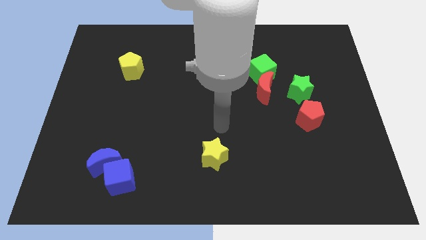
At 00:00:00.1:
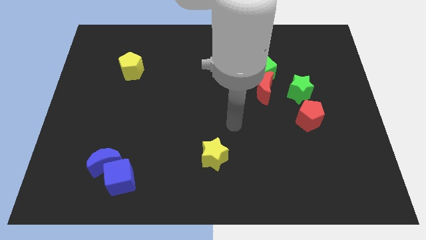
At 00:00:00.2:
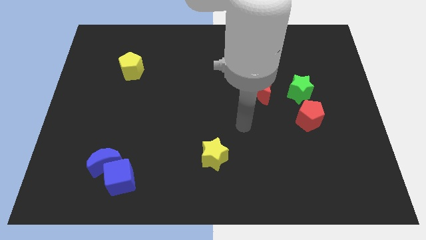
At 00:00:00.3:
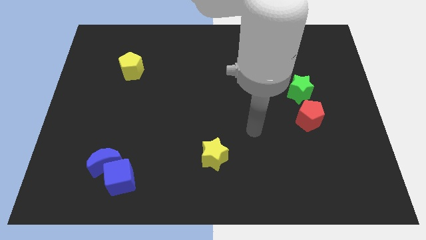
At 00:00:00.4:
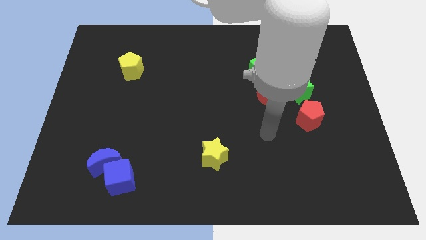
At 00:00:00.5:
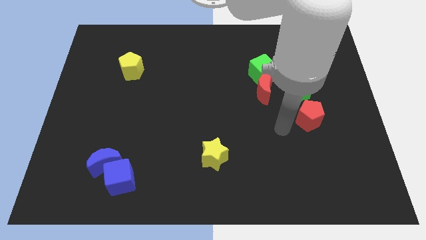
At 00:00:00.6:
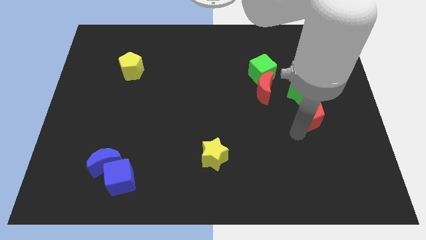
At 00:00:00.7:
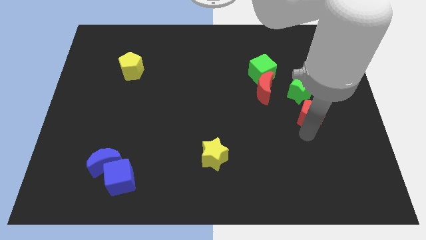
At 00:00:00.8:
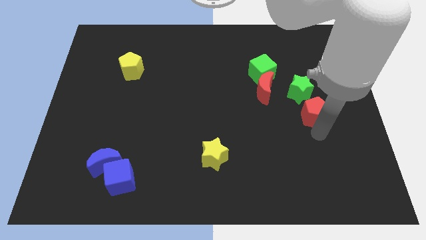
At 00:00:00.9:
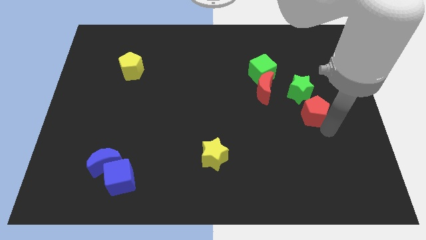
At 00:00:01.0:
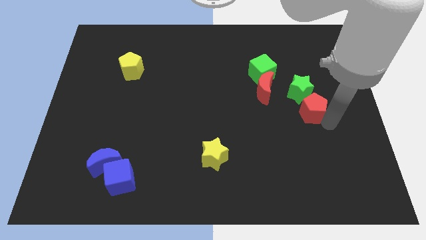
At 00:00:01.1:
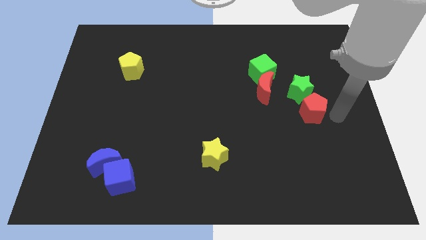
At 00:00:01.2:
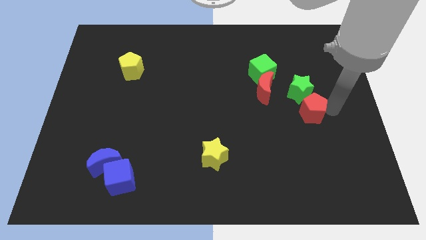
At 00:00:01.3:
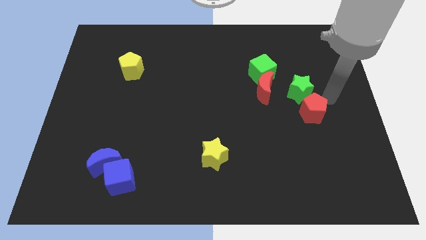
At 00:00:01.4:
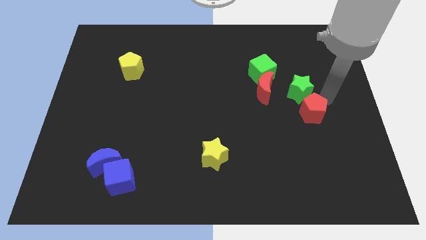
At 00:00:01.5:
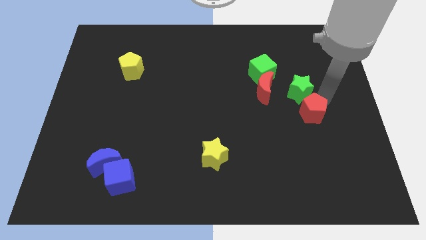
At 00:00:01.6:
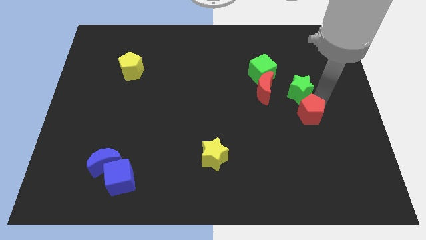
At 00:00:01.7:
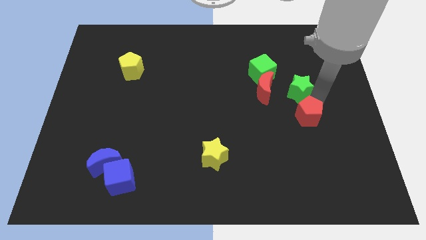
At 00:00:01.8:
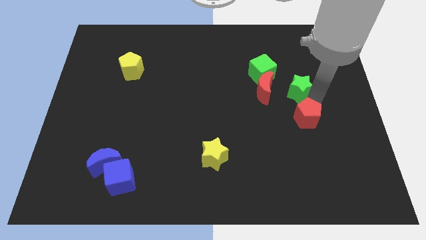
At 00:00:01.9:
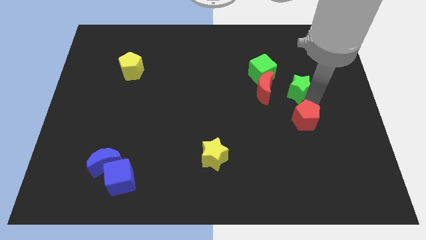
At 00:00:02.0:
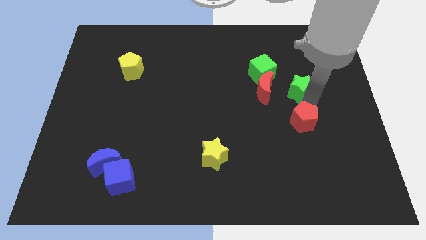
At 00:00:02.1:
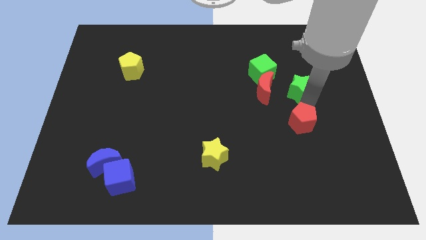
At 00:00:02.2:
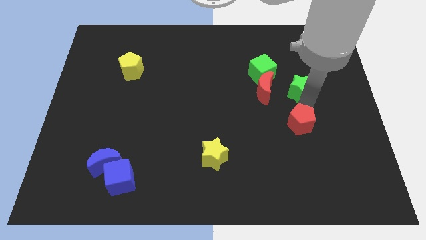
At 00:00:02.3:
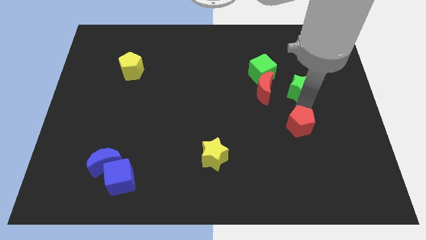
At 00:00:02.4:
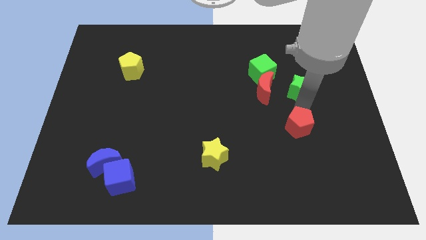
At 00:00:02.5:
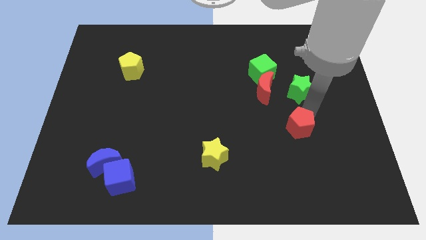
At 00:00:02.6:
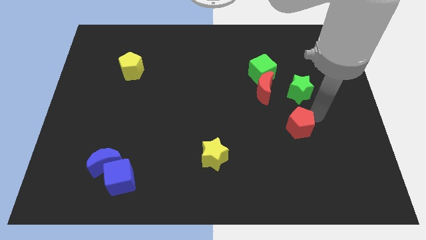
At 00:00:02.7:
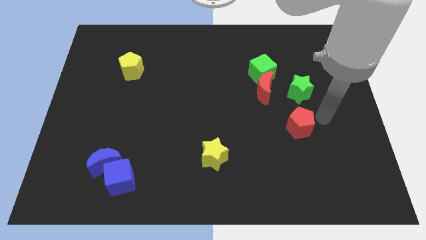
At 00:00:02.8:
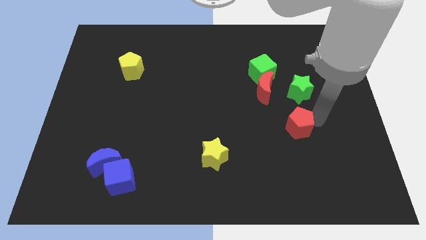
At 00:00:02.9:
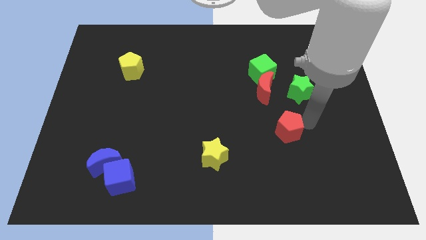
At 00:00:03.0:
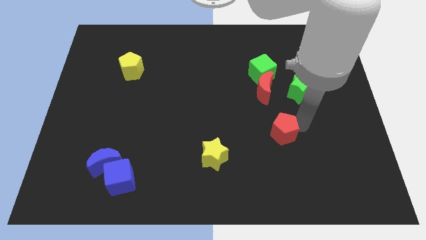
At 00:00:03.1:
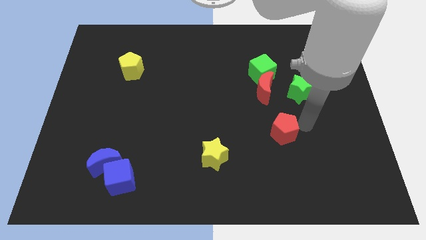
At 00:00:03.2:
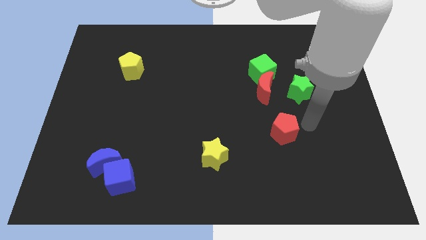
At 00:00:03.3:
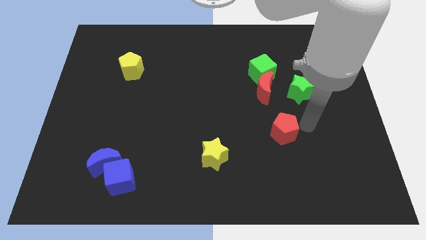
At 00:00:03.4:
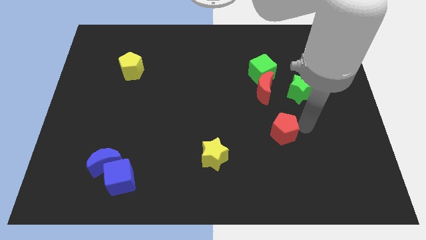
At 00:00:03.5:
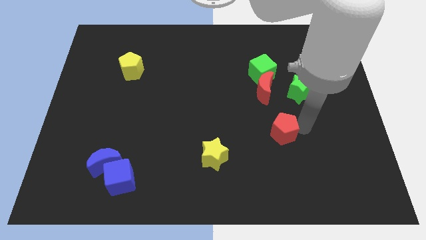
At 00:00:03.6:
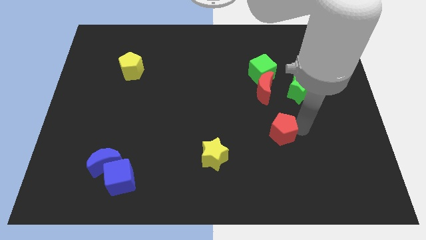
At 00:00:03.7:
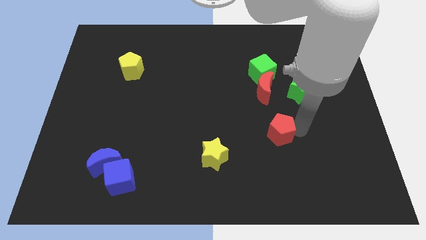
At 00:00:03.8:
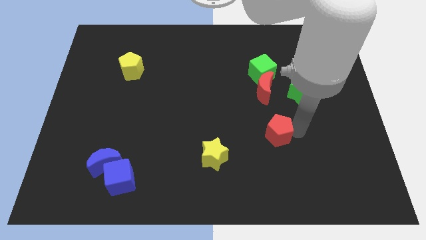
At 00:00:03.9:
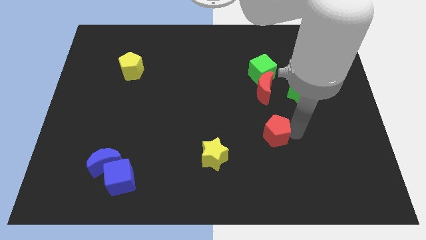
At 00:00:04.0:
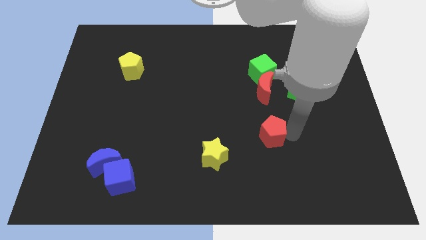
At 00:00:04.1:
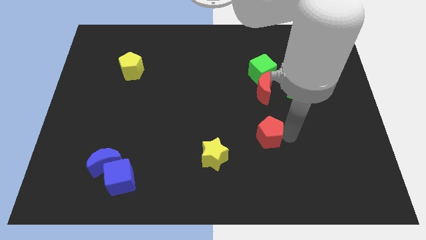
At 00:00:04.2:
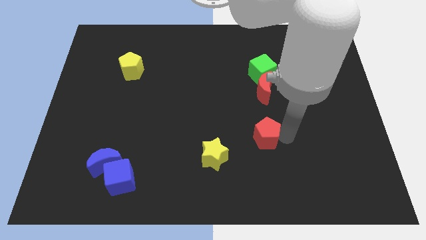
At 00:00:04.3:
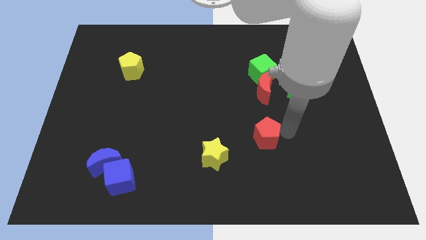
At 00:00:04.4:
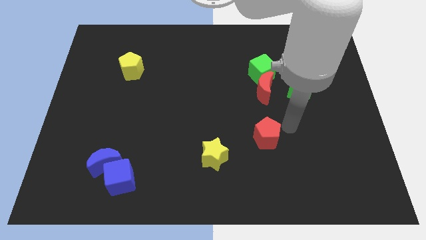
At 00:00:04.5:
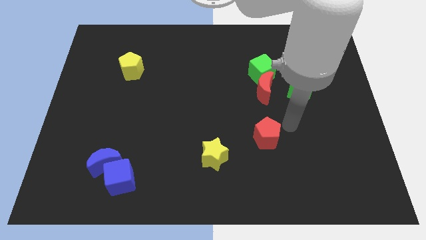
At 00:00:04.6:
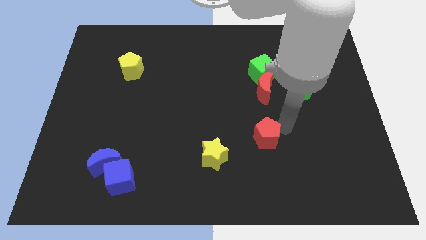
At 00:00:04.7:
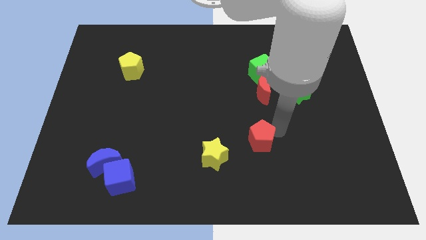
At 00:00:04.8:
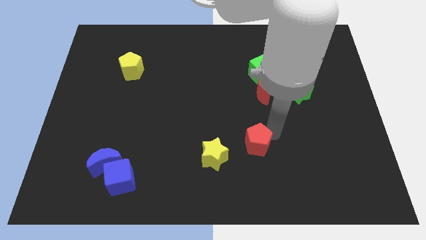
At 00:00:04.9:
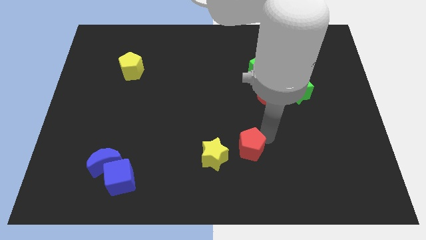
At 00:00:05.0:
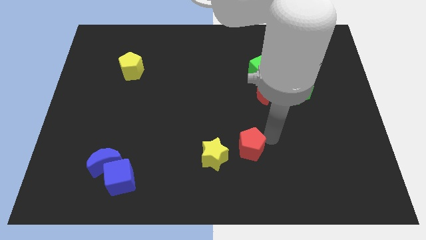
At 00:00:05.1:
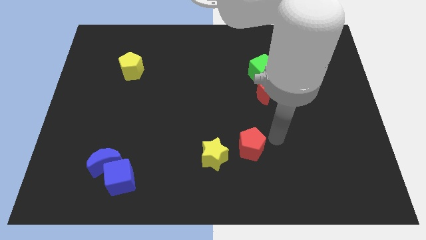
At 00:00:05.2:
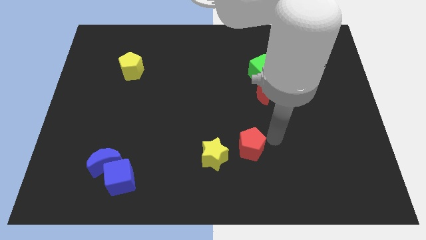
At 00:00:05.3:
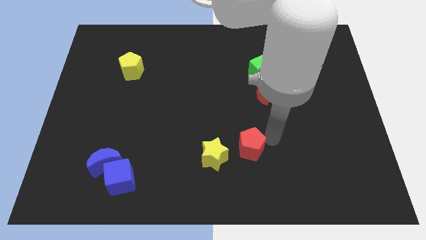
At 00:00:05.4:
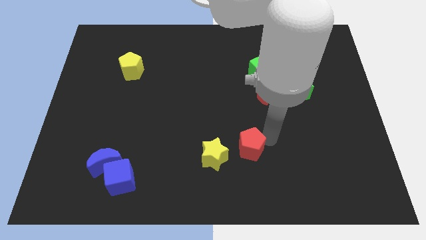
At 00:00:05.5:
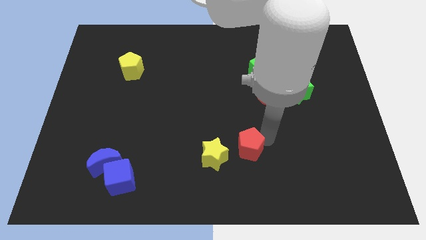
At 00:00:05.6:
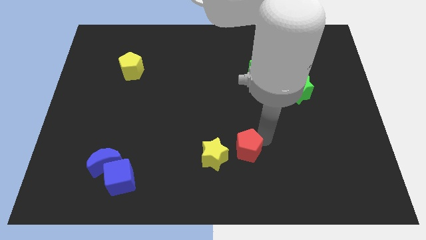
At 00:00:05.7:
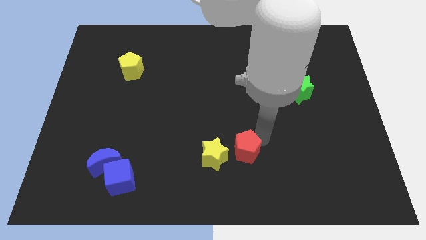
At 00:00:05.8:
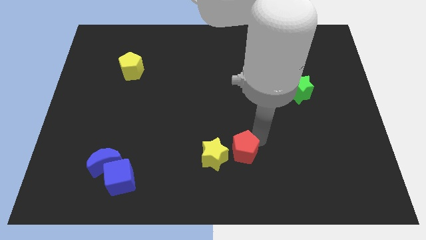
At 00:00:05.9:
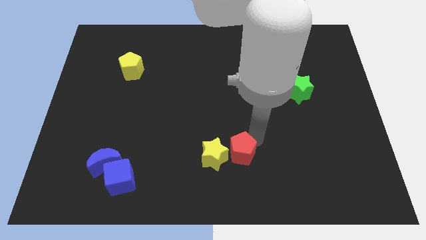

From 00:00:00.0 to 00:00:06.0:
slide the red pentagon to the yellow star
